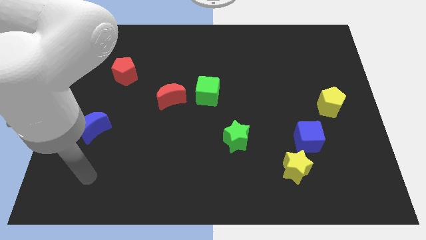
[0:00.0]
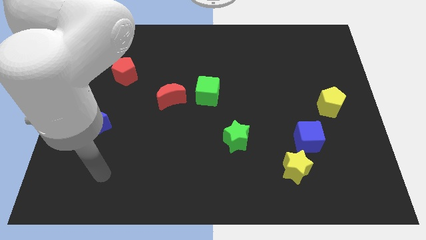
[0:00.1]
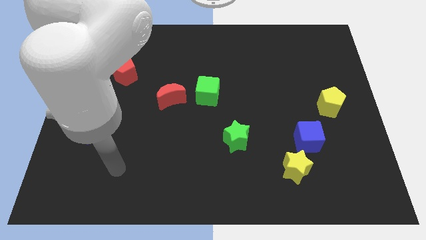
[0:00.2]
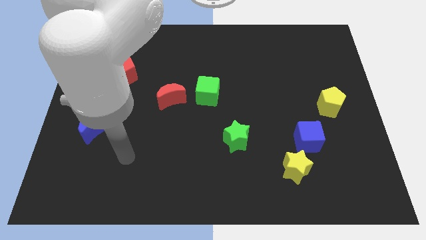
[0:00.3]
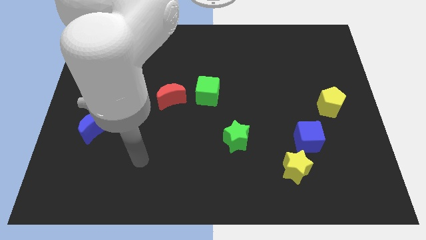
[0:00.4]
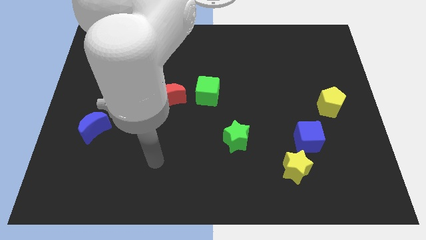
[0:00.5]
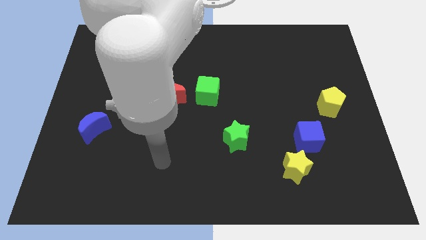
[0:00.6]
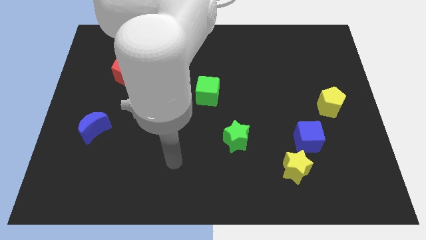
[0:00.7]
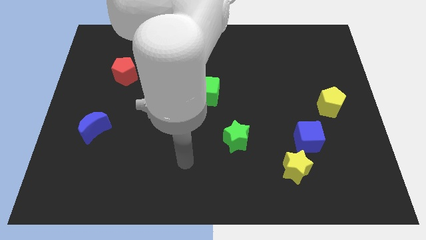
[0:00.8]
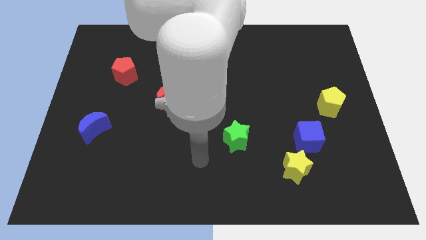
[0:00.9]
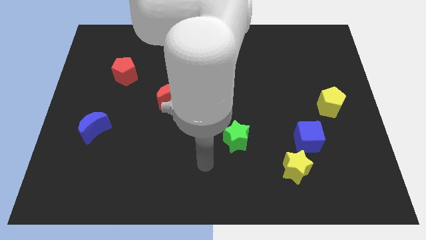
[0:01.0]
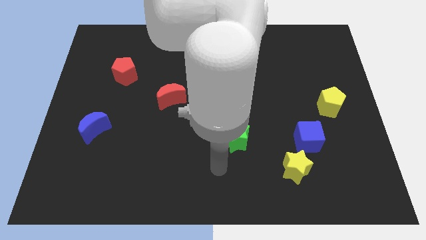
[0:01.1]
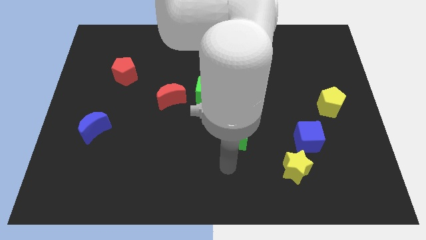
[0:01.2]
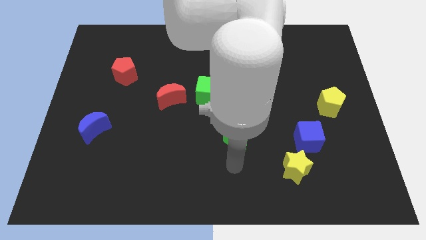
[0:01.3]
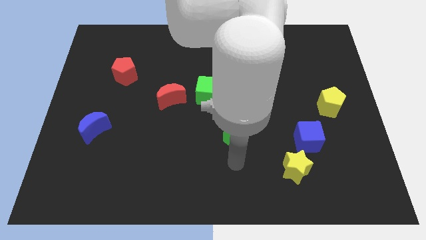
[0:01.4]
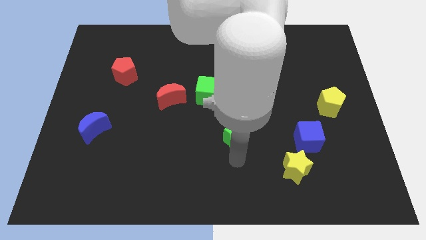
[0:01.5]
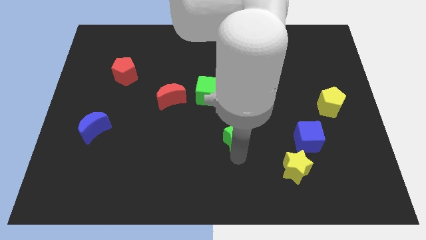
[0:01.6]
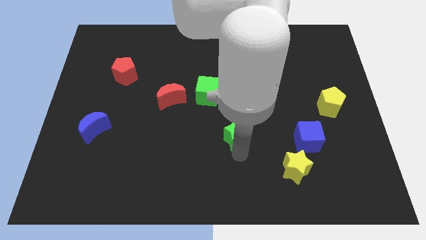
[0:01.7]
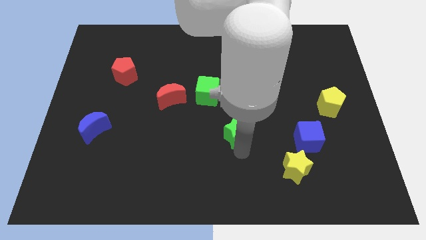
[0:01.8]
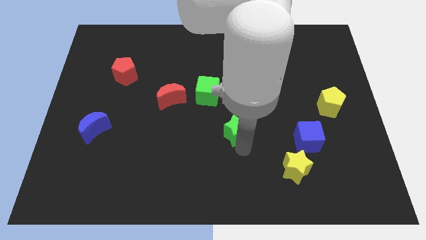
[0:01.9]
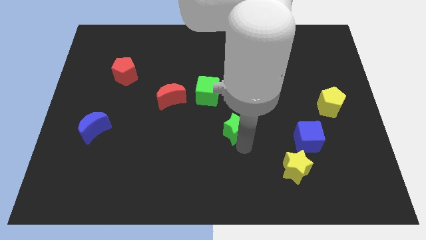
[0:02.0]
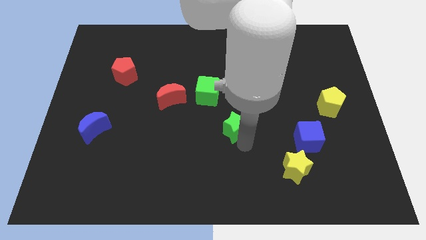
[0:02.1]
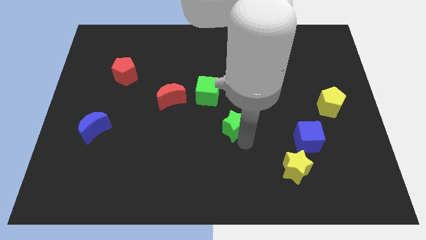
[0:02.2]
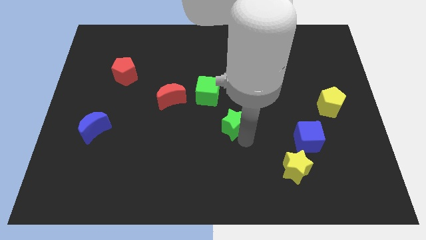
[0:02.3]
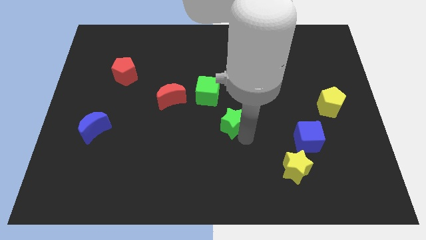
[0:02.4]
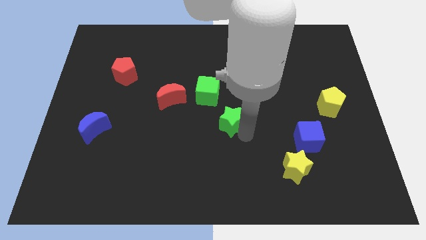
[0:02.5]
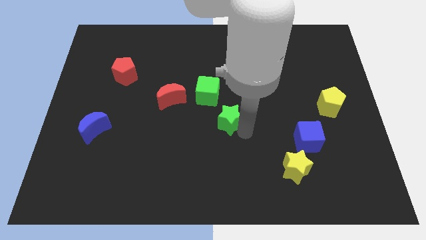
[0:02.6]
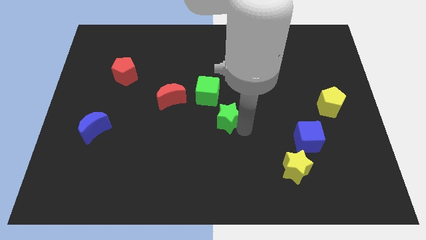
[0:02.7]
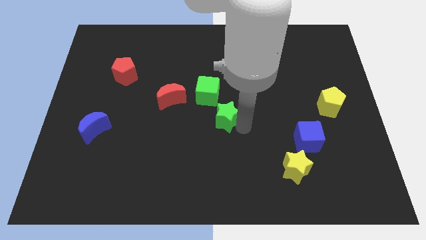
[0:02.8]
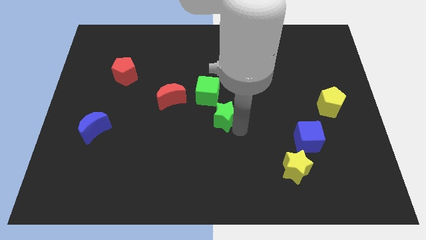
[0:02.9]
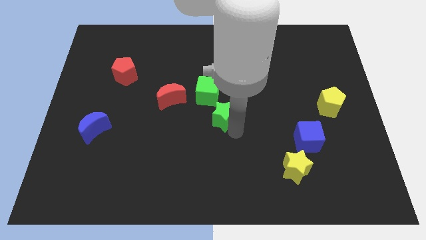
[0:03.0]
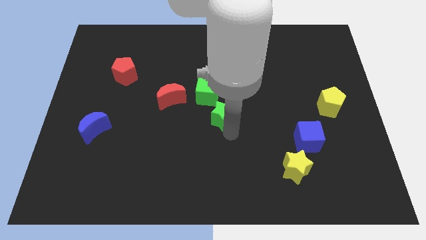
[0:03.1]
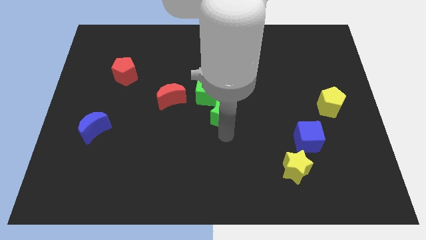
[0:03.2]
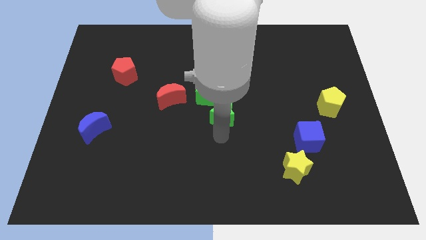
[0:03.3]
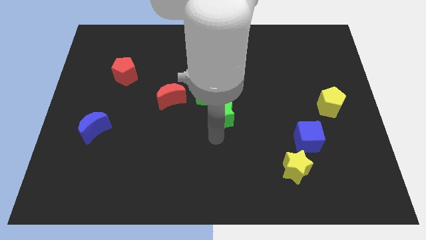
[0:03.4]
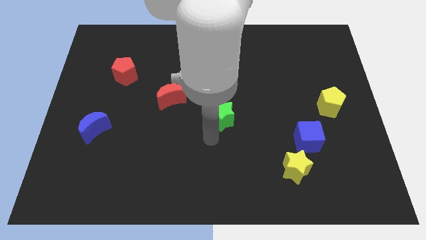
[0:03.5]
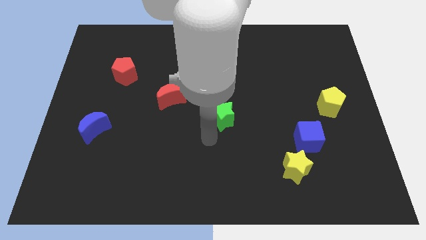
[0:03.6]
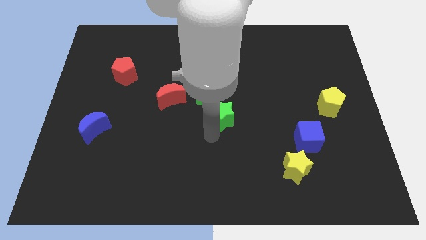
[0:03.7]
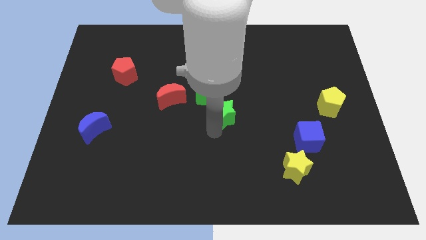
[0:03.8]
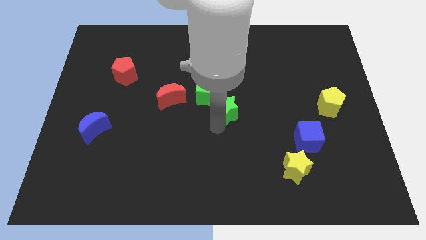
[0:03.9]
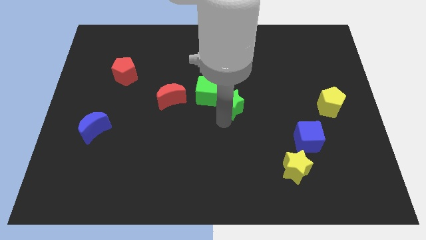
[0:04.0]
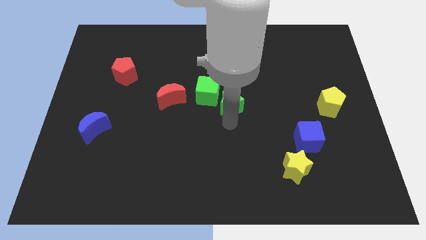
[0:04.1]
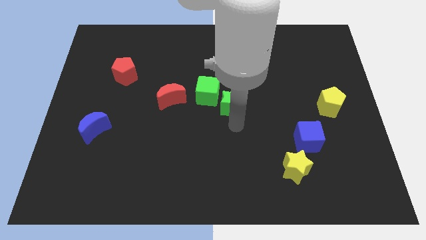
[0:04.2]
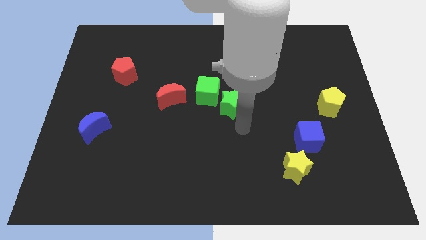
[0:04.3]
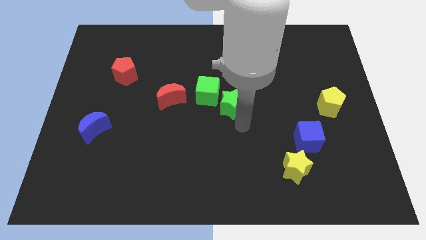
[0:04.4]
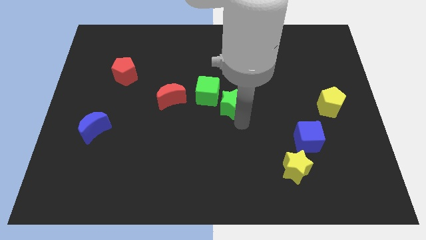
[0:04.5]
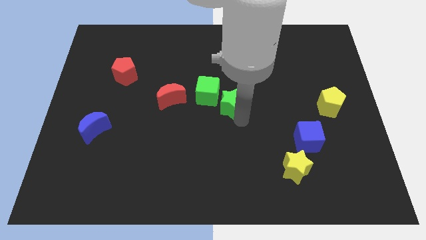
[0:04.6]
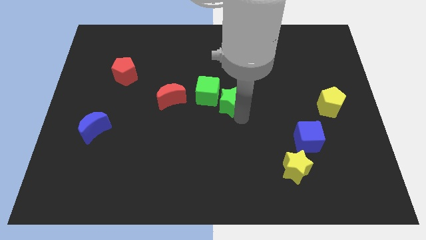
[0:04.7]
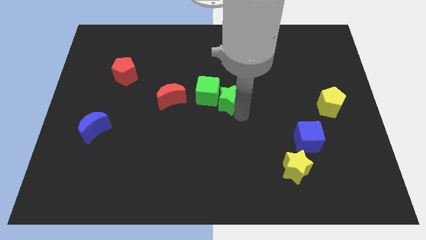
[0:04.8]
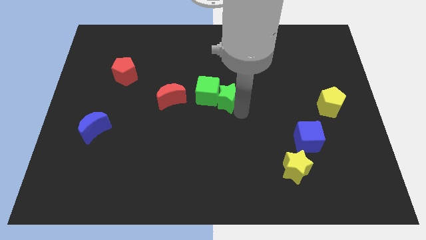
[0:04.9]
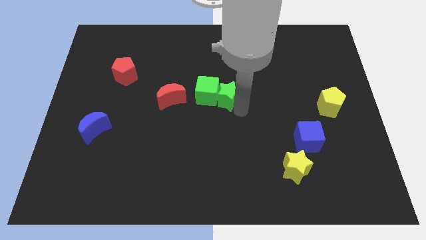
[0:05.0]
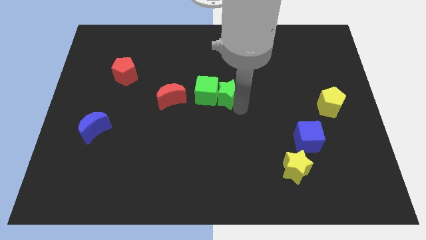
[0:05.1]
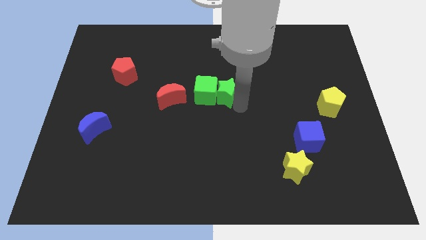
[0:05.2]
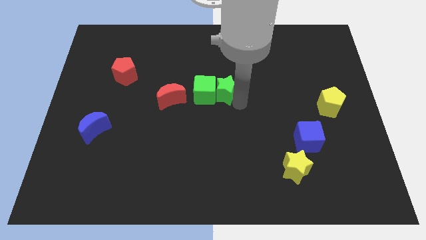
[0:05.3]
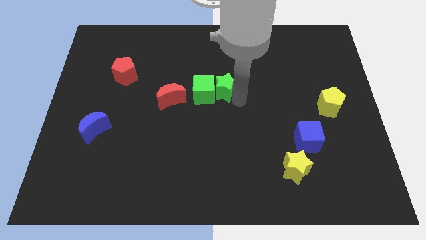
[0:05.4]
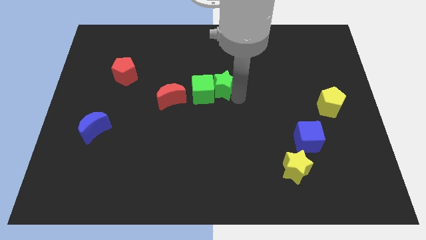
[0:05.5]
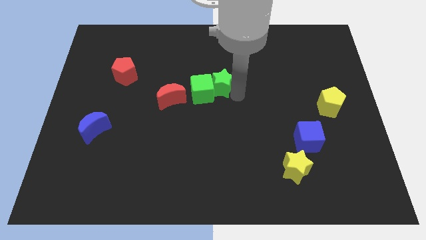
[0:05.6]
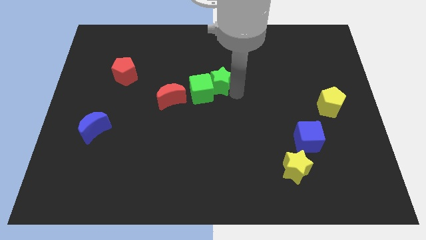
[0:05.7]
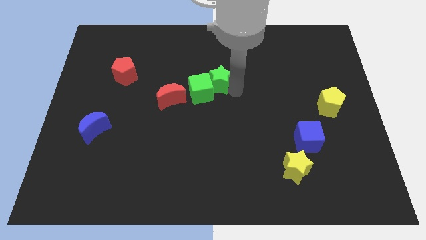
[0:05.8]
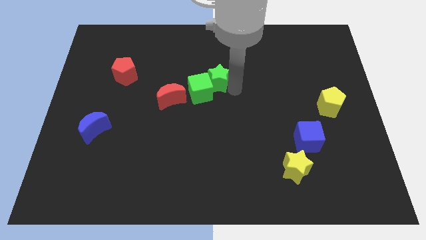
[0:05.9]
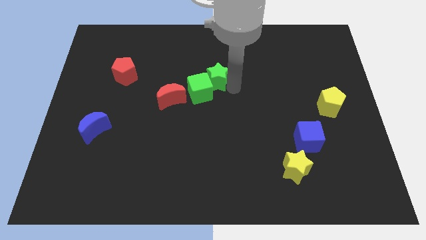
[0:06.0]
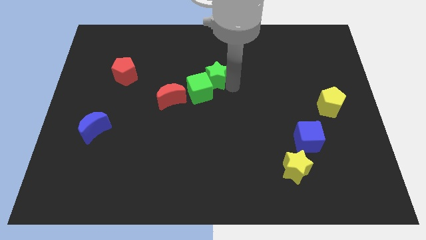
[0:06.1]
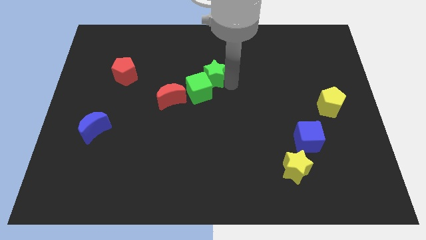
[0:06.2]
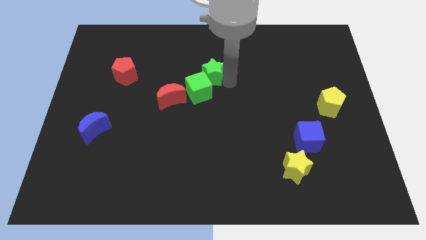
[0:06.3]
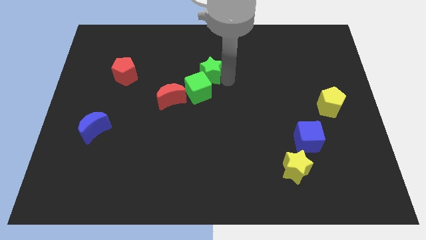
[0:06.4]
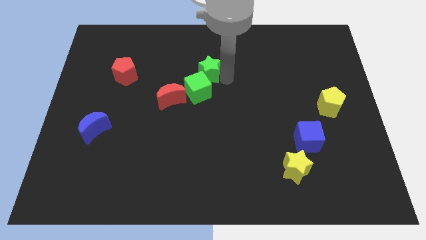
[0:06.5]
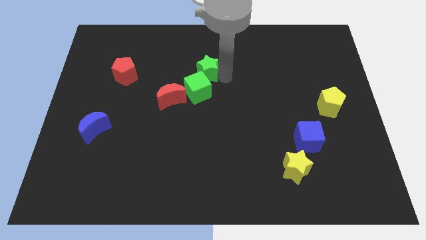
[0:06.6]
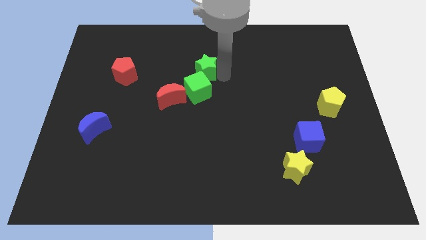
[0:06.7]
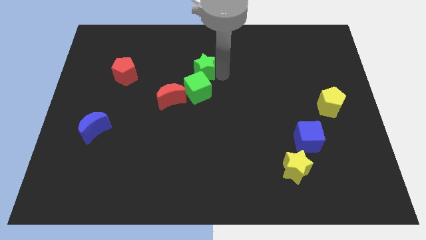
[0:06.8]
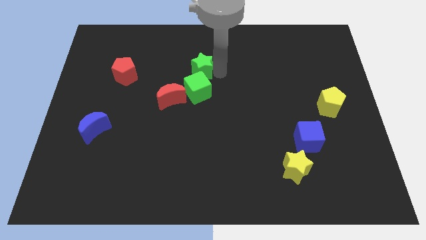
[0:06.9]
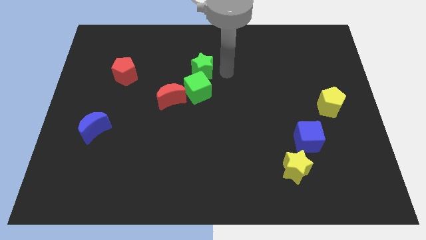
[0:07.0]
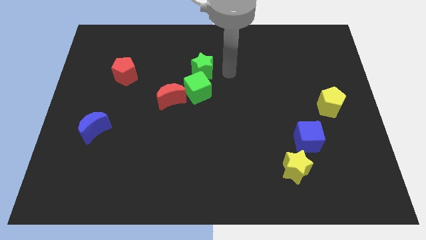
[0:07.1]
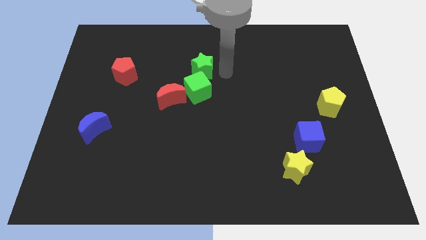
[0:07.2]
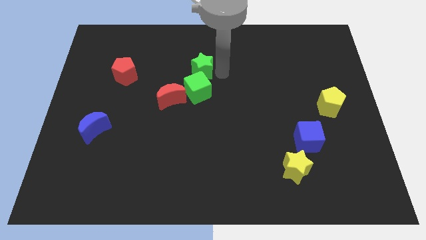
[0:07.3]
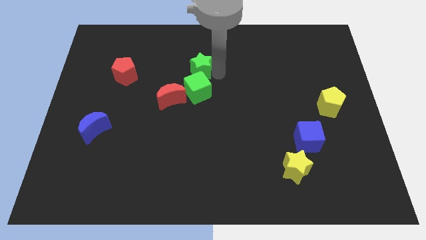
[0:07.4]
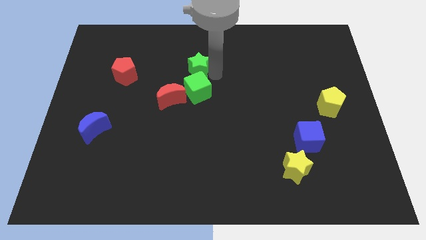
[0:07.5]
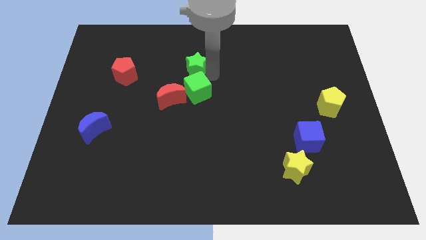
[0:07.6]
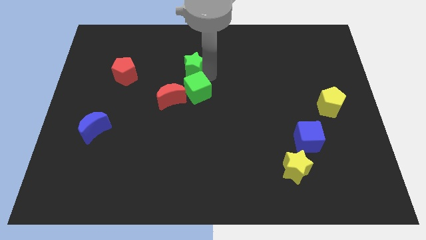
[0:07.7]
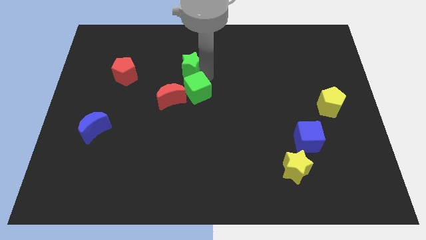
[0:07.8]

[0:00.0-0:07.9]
move the green star to the top side of the red moon
